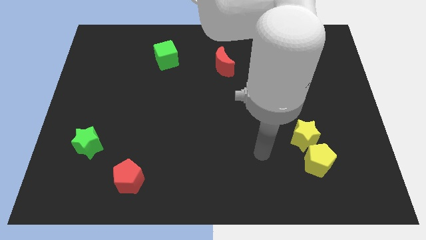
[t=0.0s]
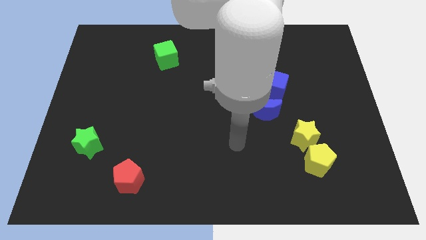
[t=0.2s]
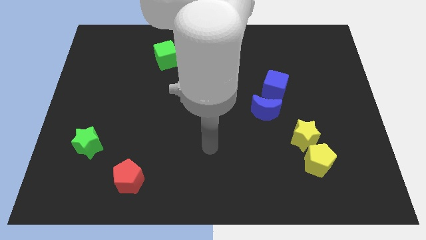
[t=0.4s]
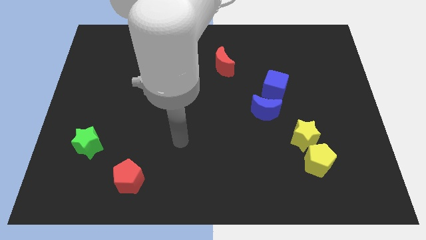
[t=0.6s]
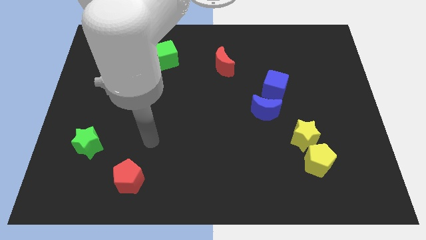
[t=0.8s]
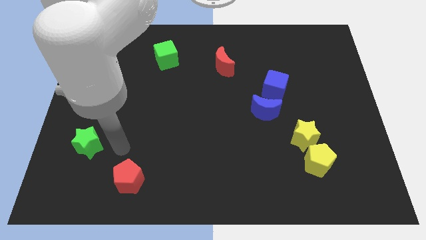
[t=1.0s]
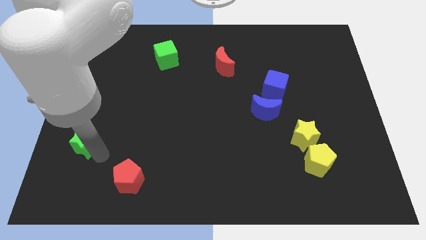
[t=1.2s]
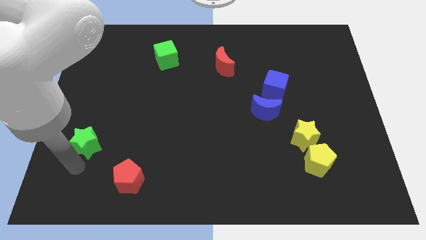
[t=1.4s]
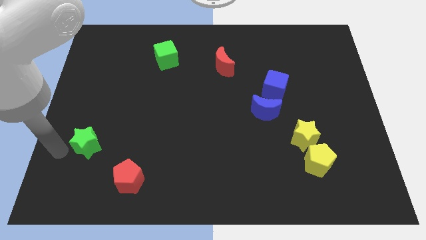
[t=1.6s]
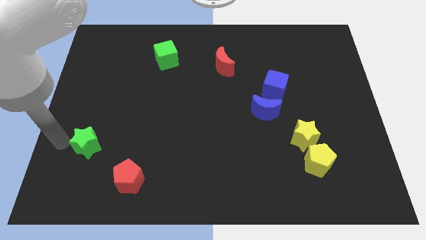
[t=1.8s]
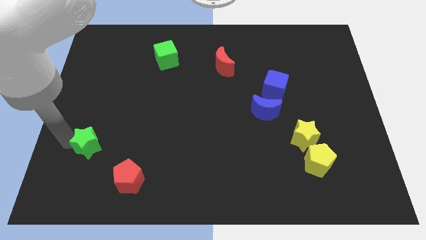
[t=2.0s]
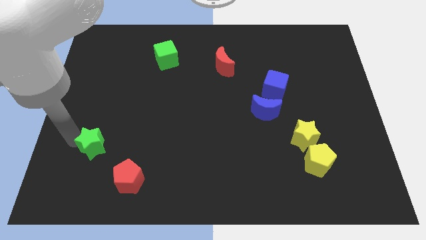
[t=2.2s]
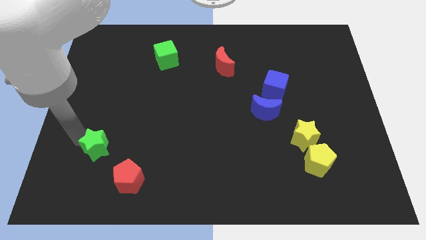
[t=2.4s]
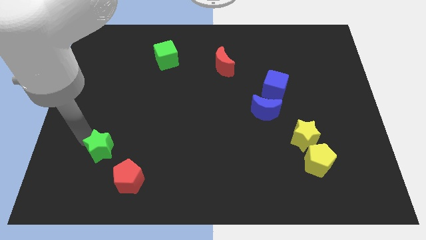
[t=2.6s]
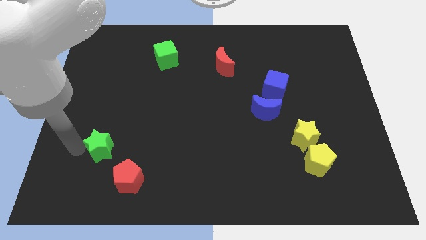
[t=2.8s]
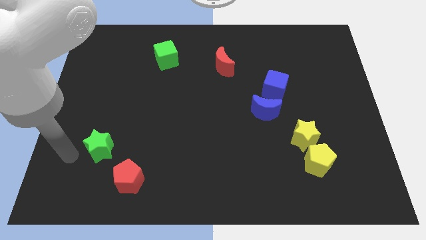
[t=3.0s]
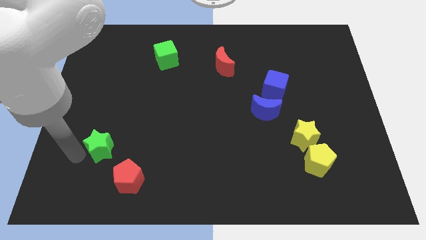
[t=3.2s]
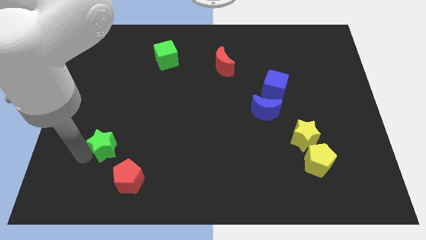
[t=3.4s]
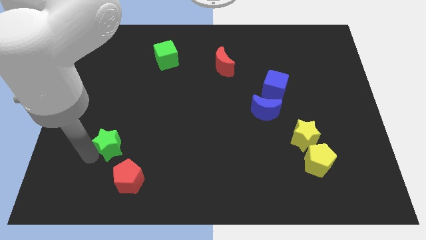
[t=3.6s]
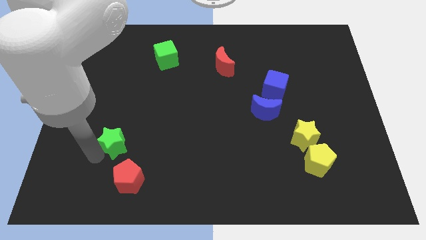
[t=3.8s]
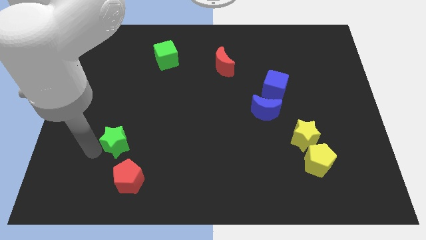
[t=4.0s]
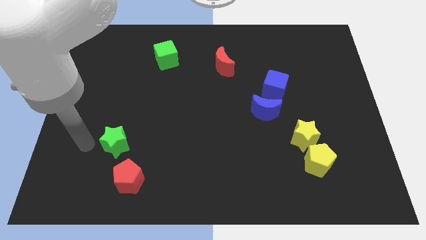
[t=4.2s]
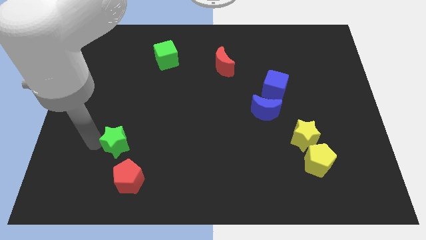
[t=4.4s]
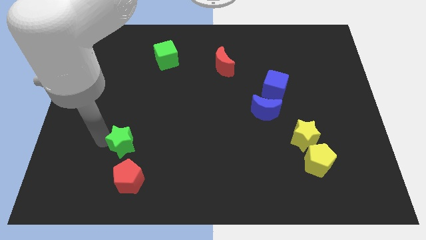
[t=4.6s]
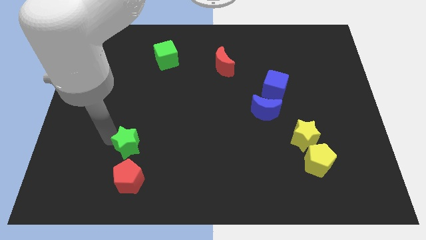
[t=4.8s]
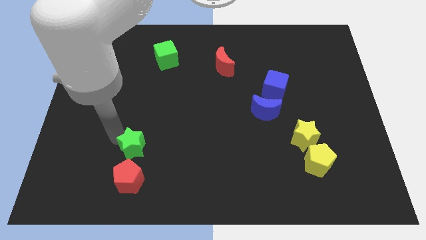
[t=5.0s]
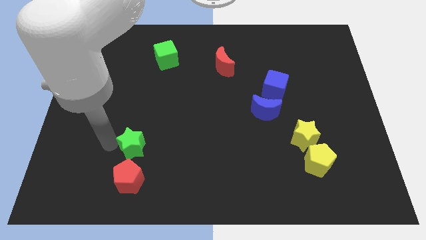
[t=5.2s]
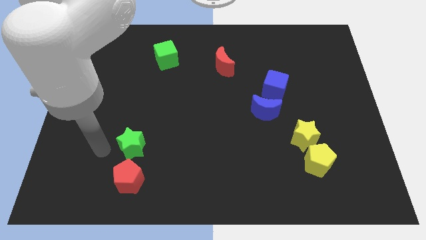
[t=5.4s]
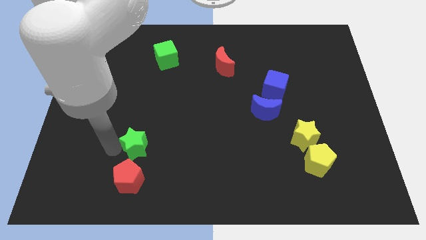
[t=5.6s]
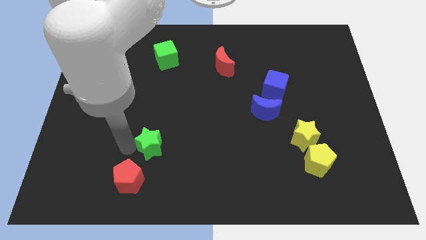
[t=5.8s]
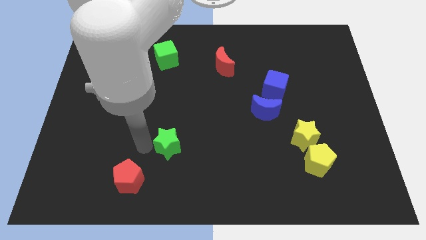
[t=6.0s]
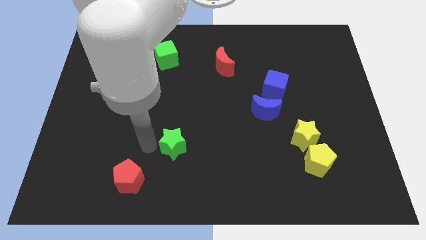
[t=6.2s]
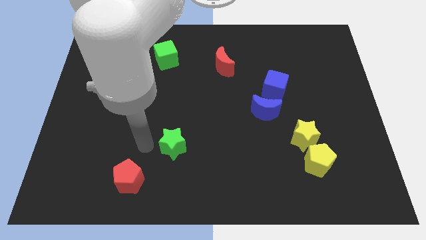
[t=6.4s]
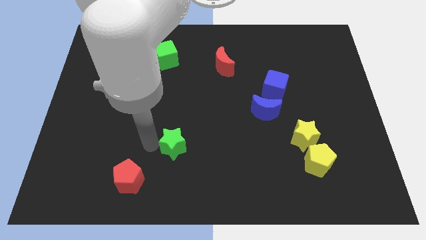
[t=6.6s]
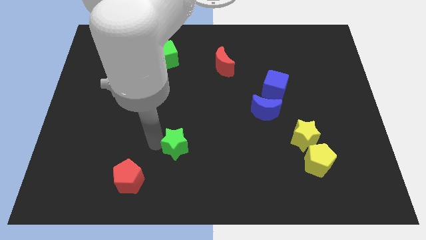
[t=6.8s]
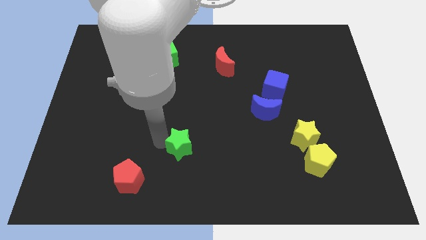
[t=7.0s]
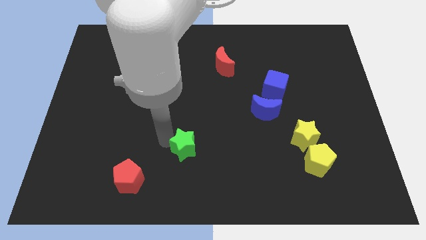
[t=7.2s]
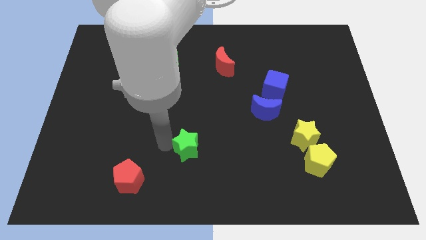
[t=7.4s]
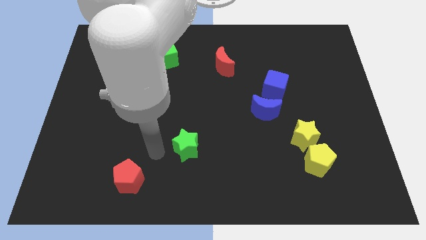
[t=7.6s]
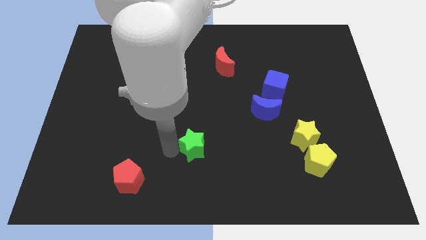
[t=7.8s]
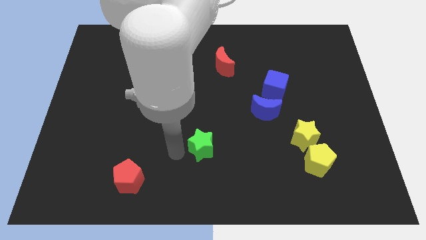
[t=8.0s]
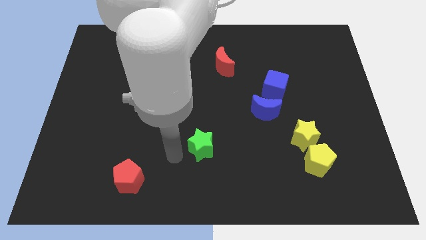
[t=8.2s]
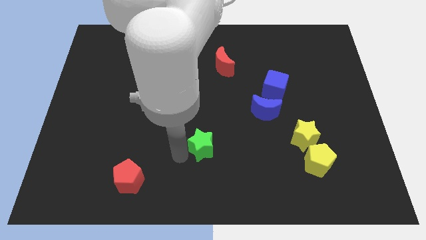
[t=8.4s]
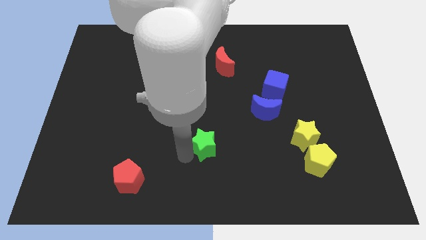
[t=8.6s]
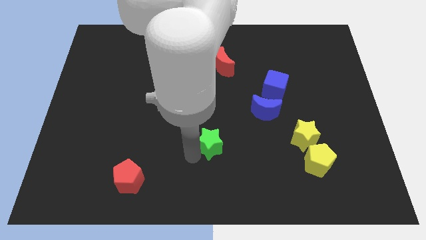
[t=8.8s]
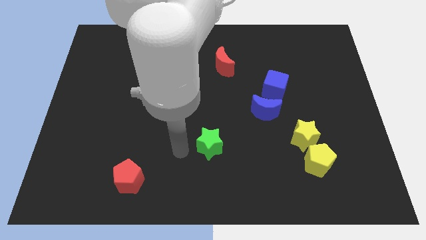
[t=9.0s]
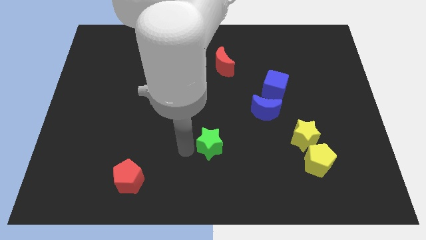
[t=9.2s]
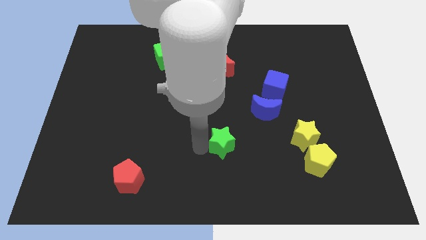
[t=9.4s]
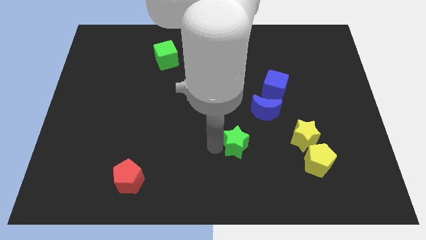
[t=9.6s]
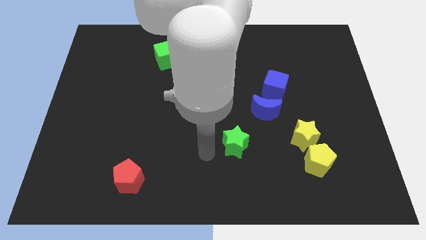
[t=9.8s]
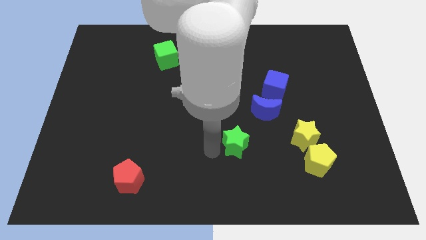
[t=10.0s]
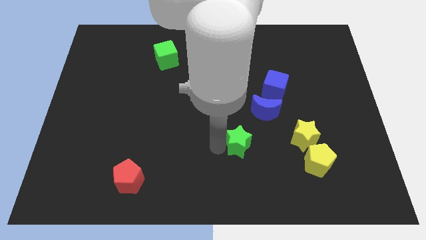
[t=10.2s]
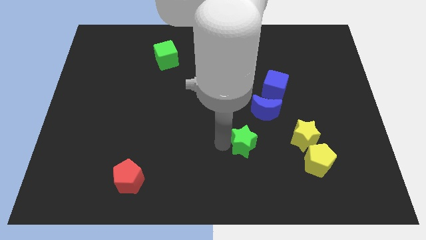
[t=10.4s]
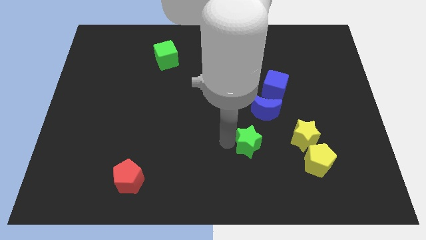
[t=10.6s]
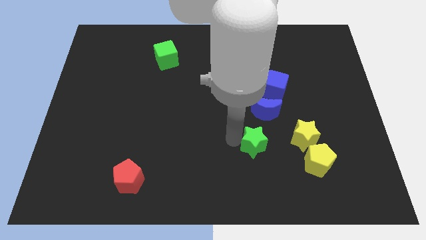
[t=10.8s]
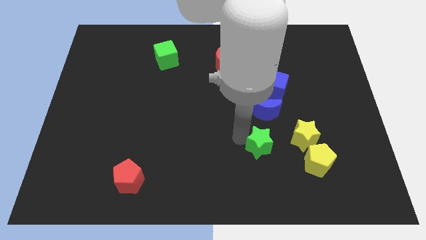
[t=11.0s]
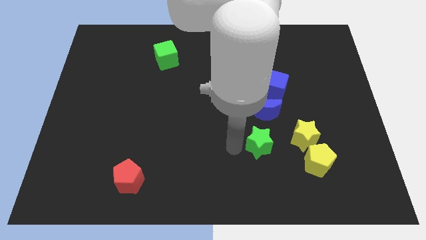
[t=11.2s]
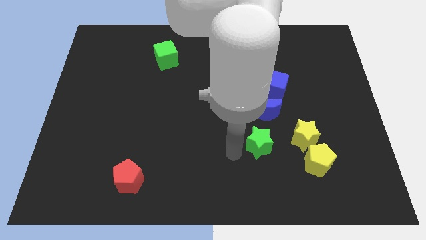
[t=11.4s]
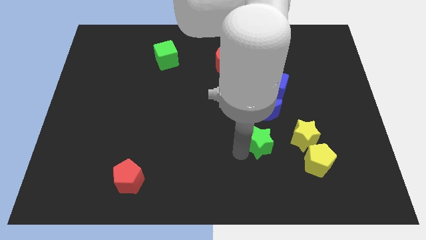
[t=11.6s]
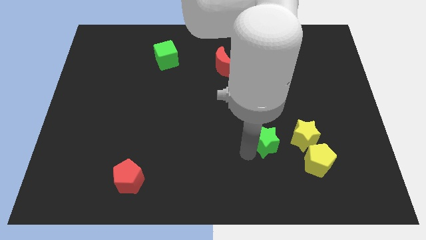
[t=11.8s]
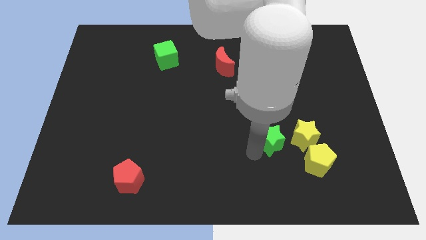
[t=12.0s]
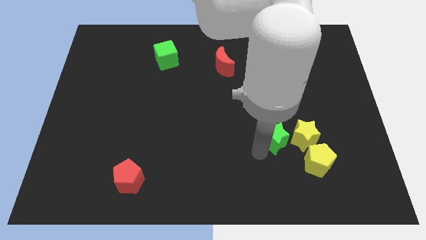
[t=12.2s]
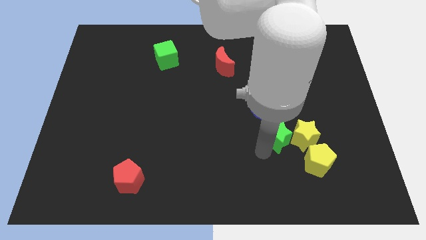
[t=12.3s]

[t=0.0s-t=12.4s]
push the green star towards the yellow star
